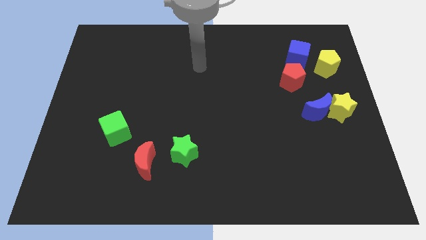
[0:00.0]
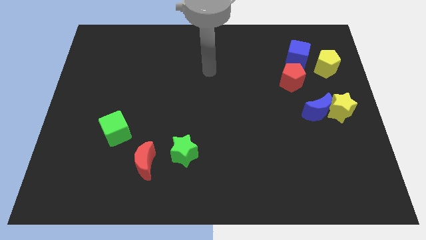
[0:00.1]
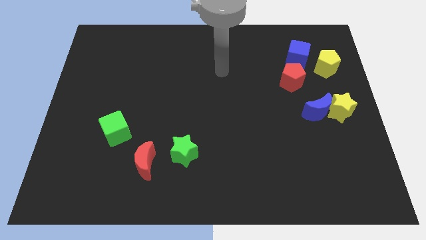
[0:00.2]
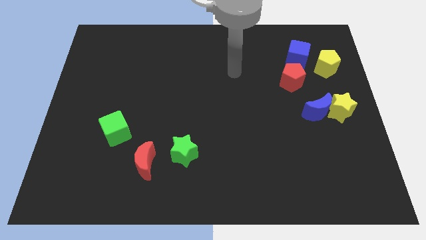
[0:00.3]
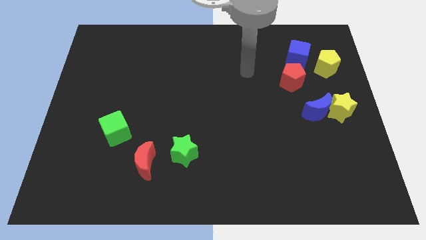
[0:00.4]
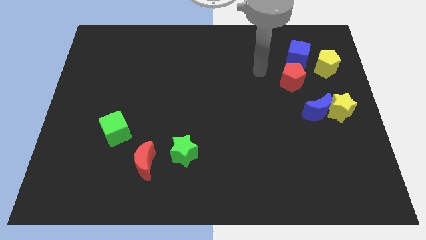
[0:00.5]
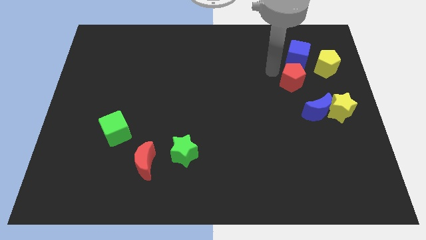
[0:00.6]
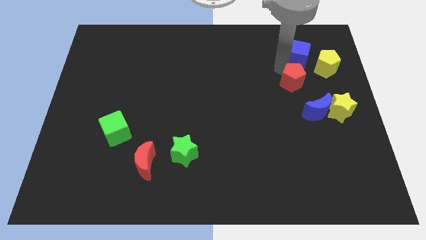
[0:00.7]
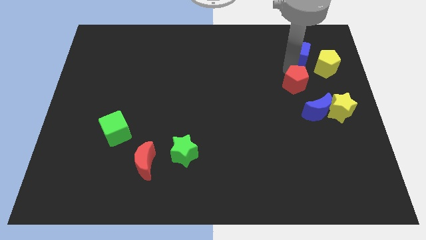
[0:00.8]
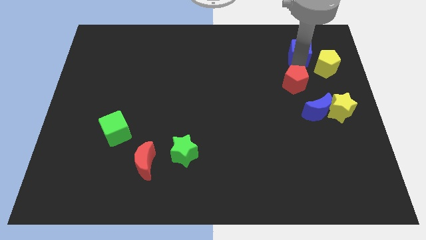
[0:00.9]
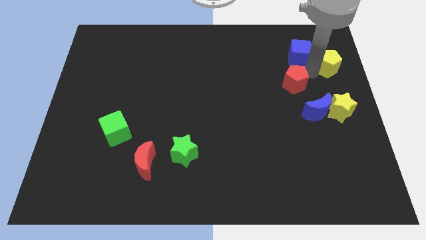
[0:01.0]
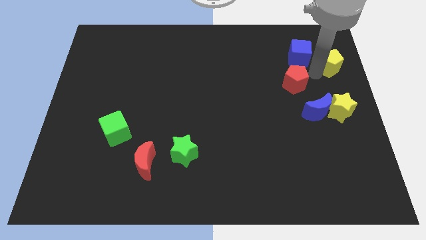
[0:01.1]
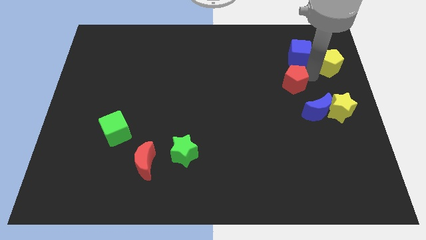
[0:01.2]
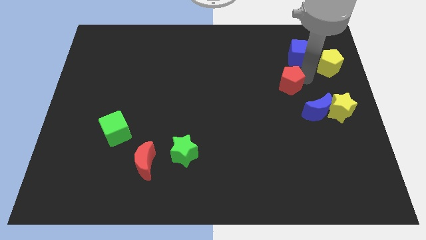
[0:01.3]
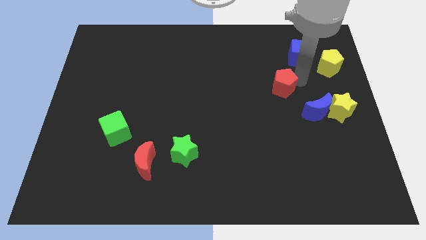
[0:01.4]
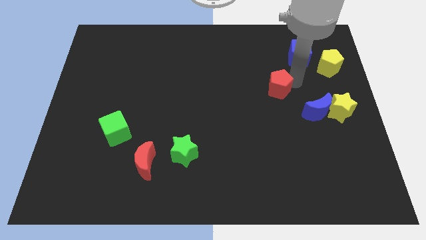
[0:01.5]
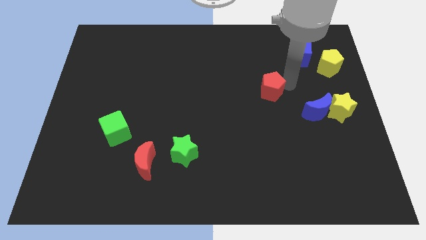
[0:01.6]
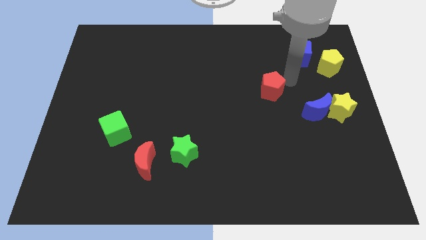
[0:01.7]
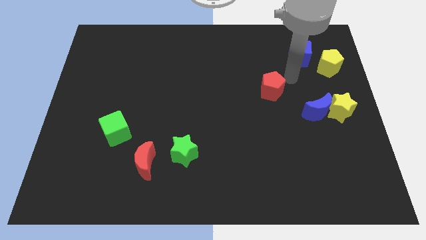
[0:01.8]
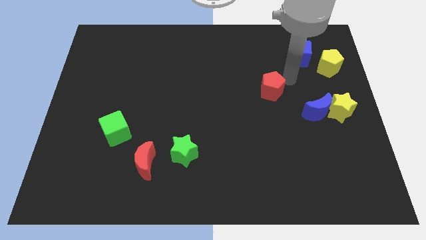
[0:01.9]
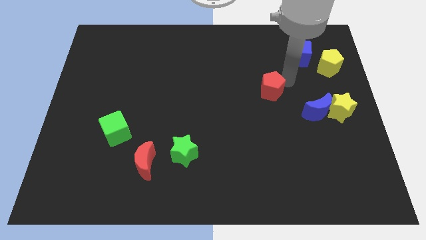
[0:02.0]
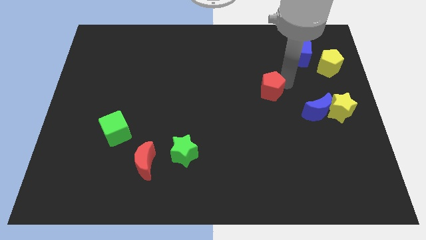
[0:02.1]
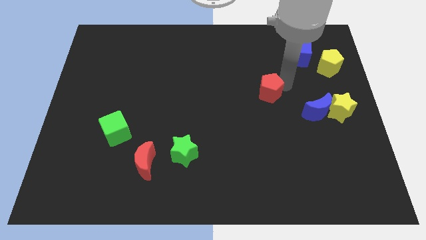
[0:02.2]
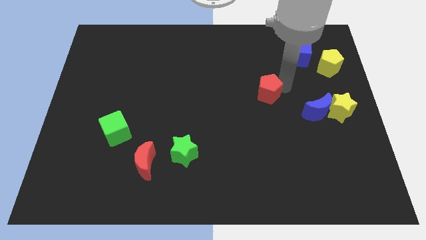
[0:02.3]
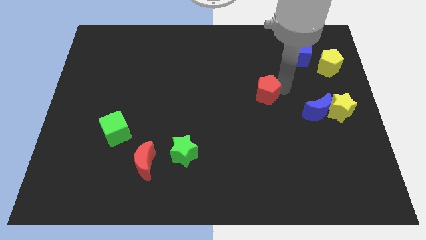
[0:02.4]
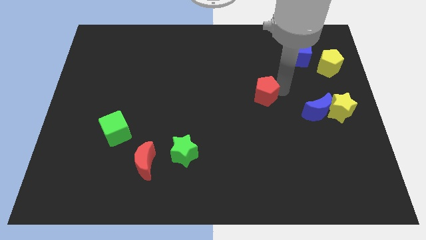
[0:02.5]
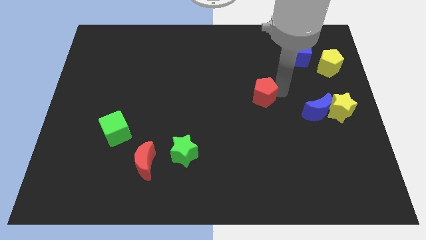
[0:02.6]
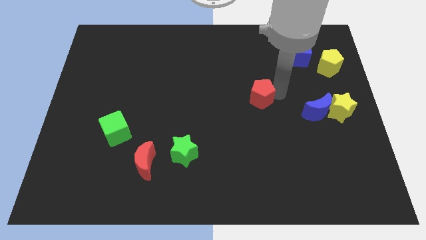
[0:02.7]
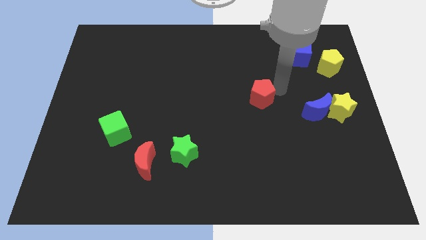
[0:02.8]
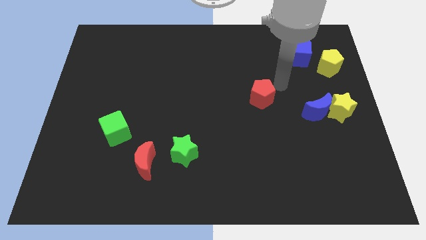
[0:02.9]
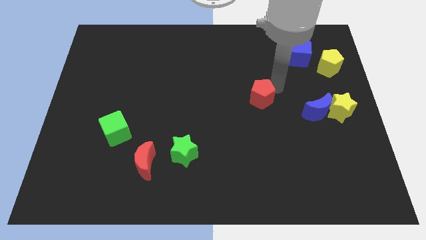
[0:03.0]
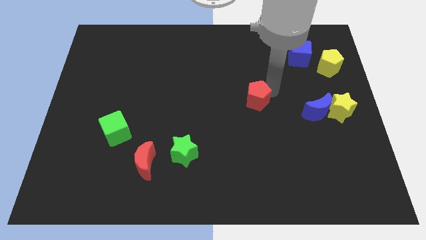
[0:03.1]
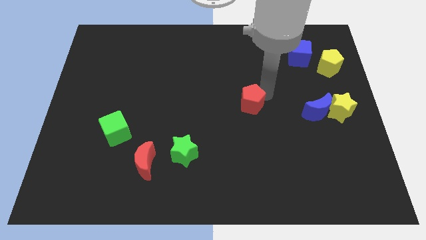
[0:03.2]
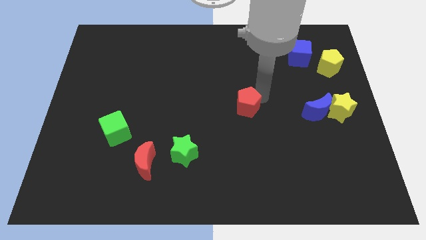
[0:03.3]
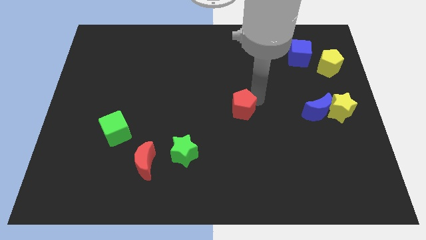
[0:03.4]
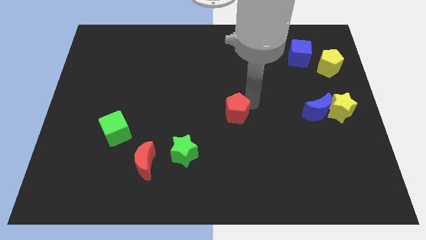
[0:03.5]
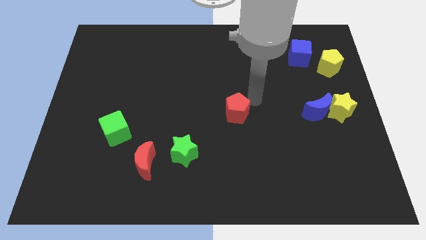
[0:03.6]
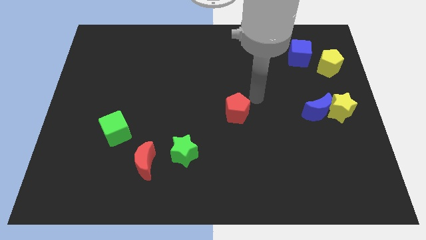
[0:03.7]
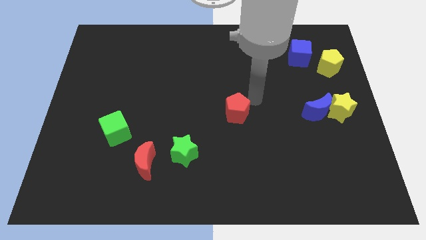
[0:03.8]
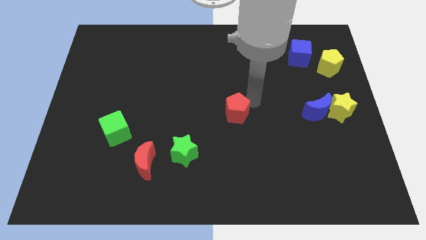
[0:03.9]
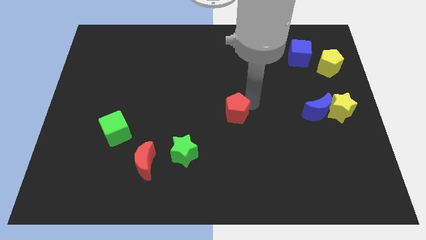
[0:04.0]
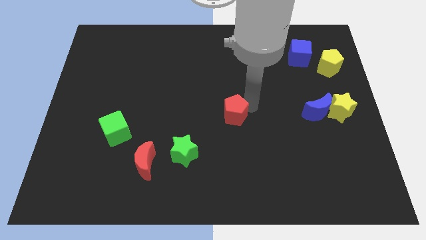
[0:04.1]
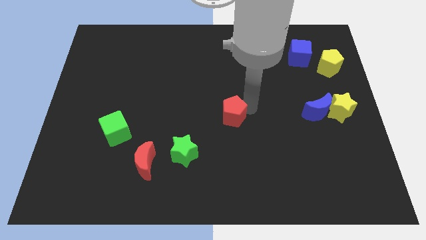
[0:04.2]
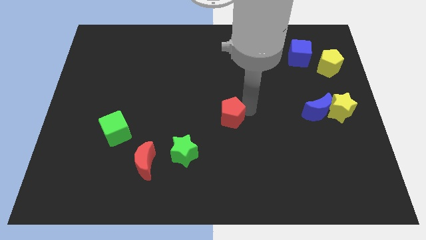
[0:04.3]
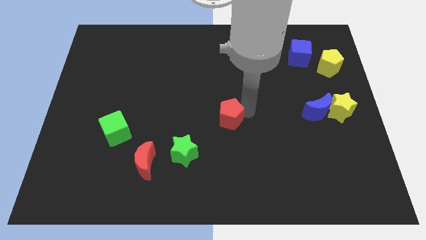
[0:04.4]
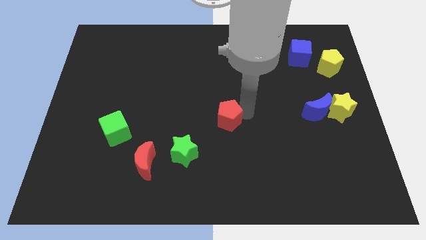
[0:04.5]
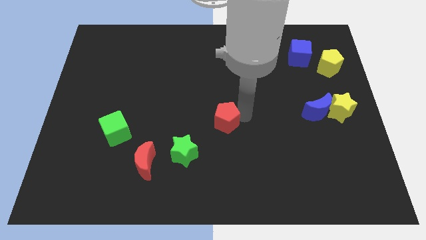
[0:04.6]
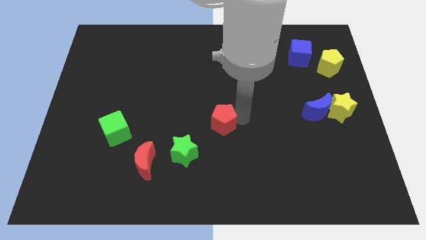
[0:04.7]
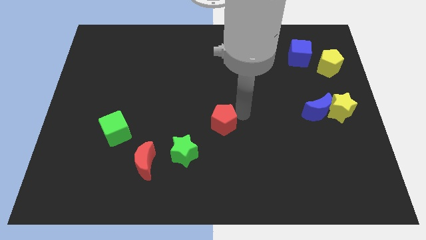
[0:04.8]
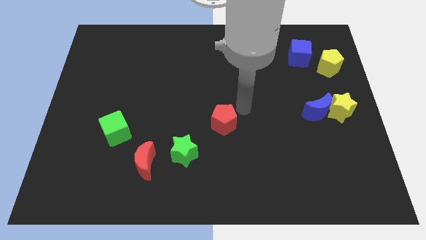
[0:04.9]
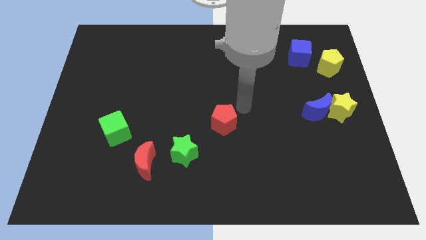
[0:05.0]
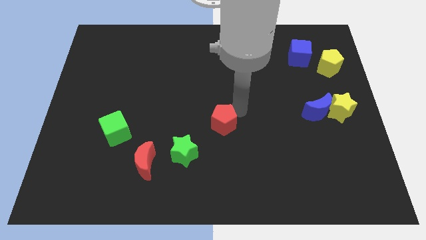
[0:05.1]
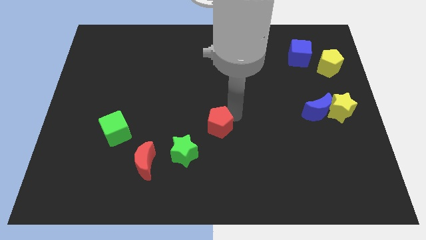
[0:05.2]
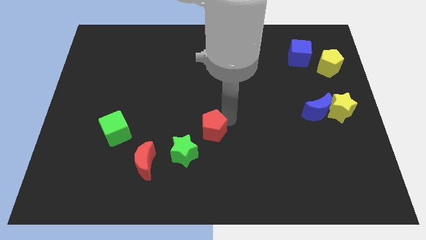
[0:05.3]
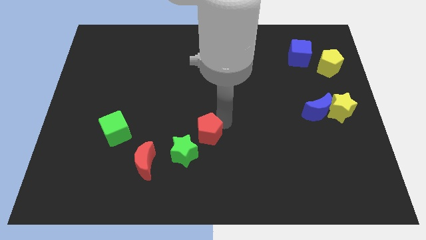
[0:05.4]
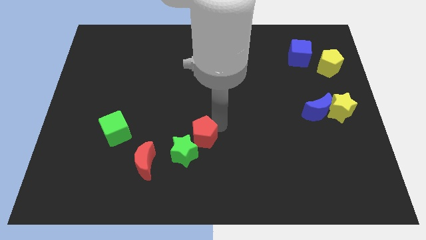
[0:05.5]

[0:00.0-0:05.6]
move the red pentagon to the green star

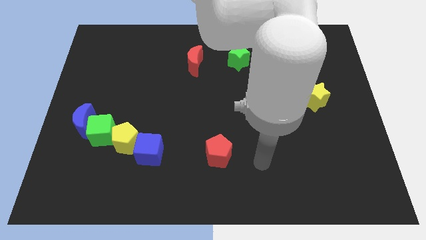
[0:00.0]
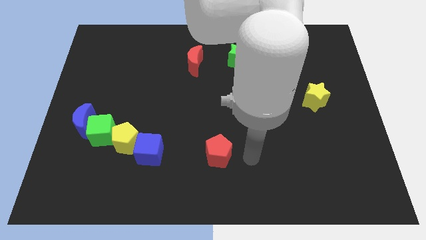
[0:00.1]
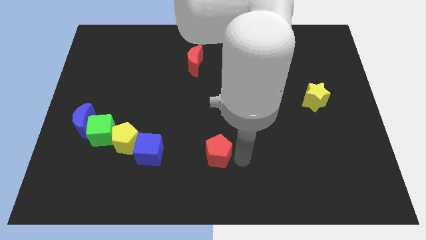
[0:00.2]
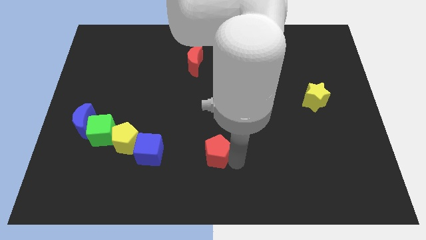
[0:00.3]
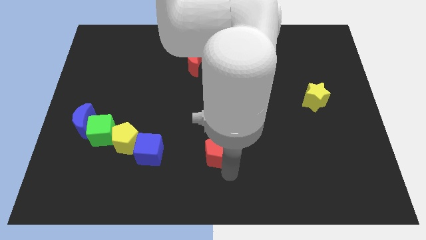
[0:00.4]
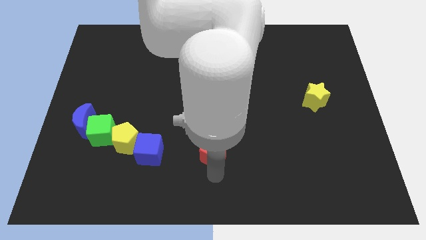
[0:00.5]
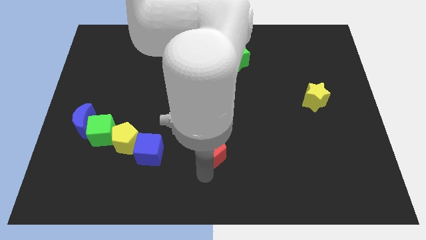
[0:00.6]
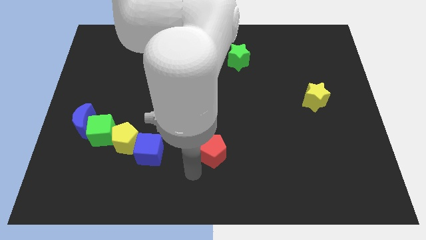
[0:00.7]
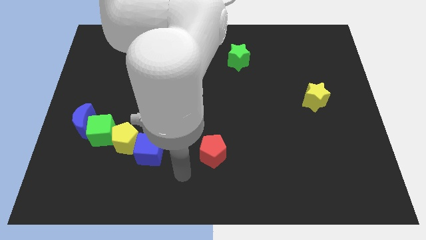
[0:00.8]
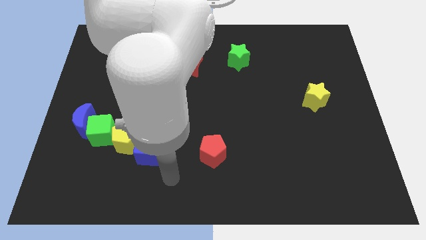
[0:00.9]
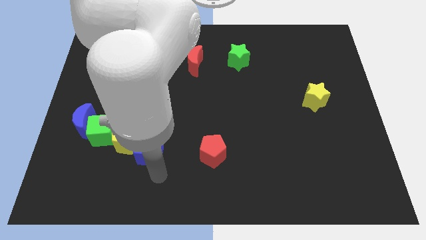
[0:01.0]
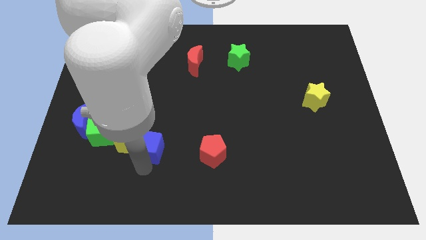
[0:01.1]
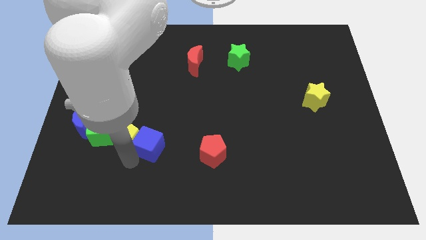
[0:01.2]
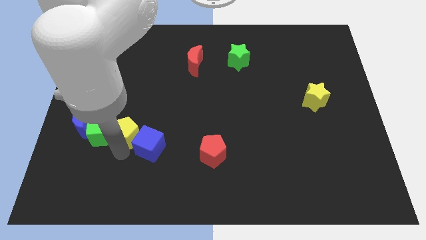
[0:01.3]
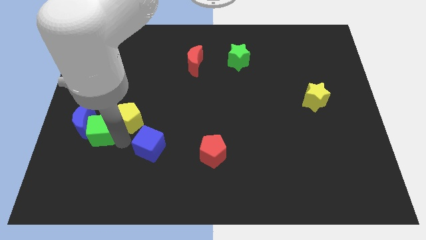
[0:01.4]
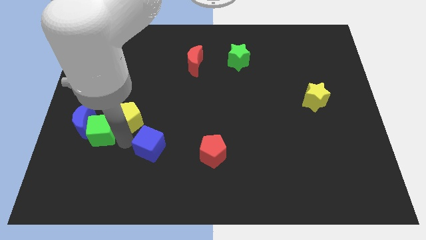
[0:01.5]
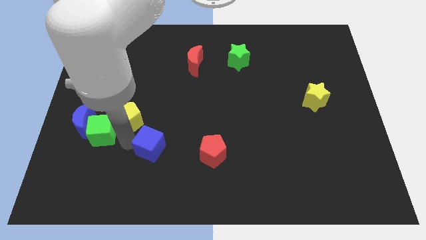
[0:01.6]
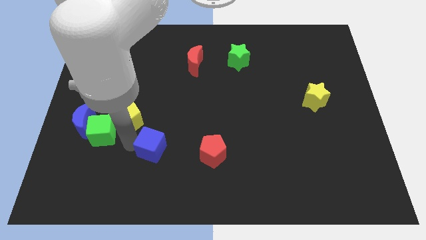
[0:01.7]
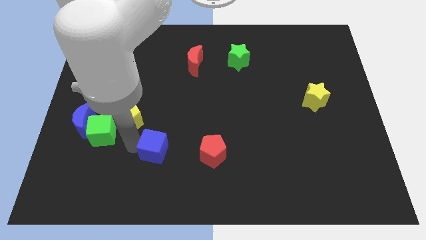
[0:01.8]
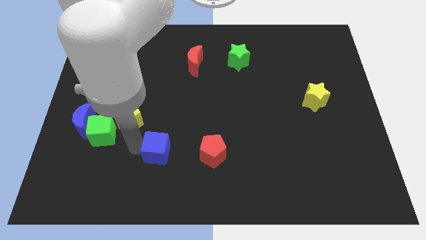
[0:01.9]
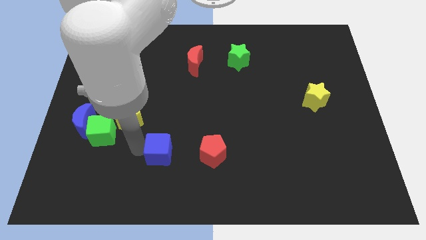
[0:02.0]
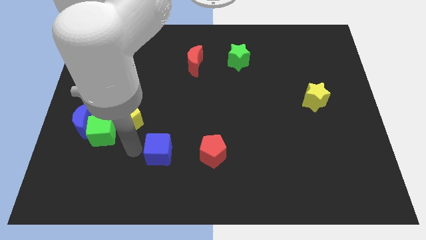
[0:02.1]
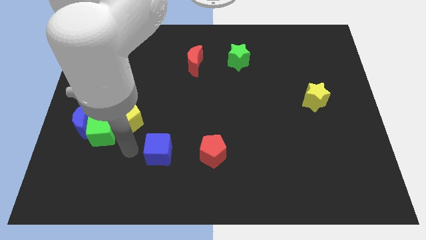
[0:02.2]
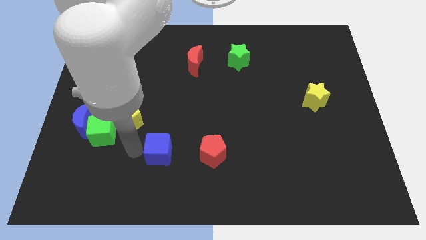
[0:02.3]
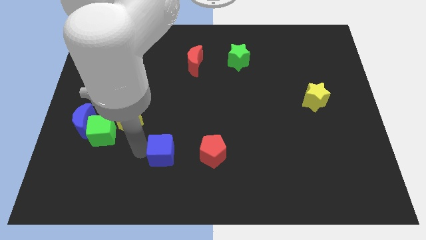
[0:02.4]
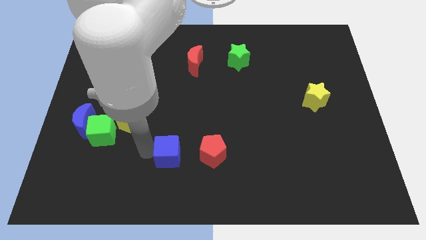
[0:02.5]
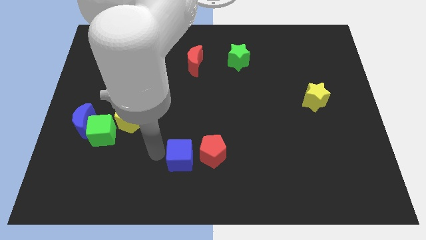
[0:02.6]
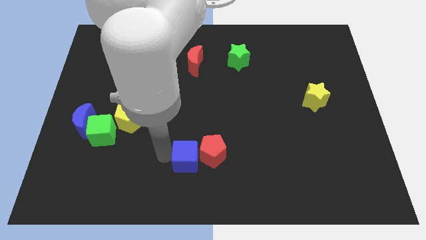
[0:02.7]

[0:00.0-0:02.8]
slide the blue cube towards the red pentagon
